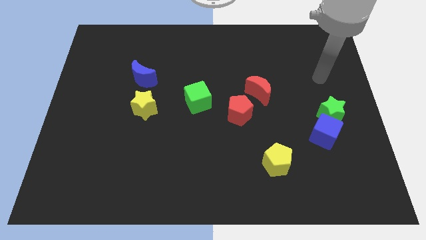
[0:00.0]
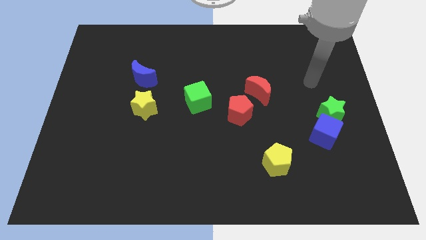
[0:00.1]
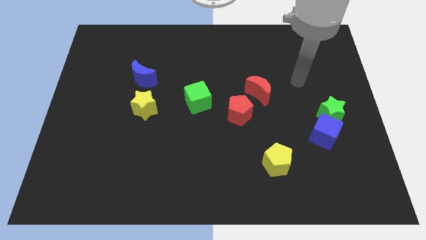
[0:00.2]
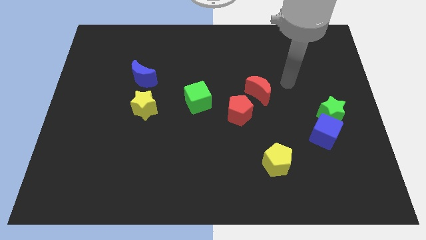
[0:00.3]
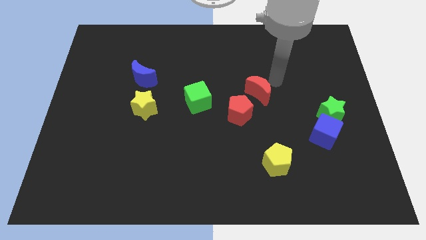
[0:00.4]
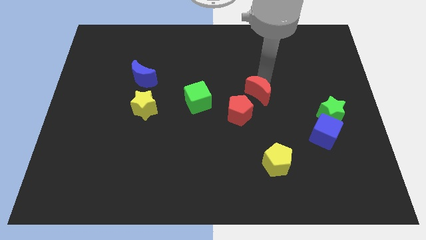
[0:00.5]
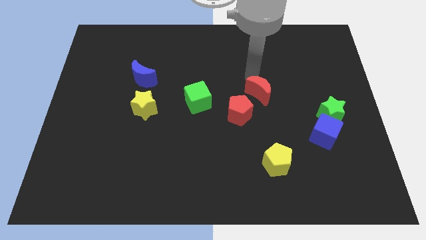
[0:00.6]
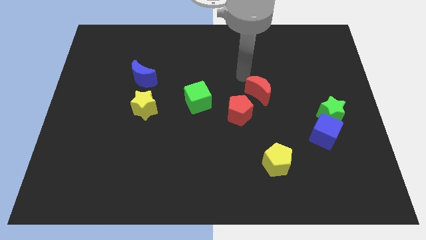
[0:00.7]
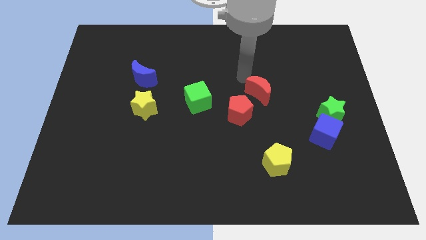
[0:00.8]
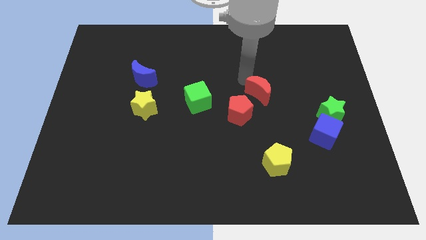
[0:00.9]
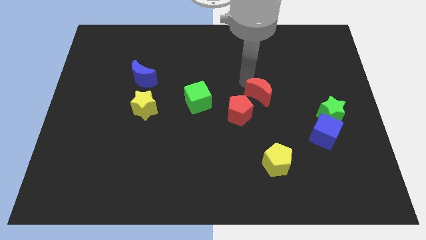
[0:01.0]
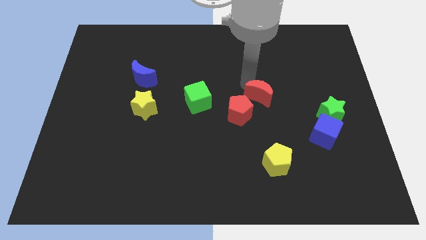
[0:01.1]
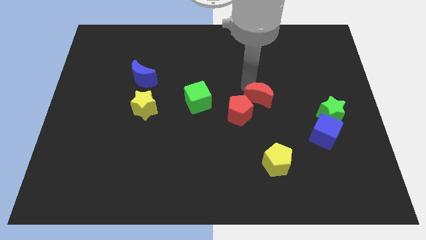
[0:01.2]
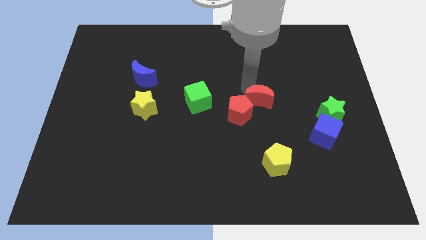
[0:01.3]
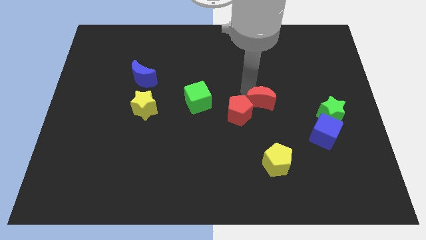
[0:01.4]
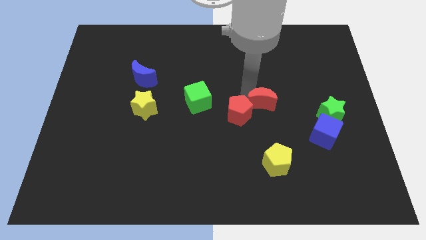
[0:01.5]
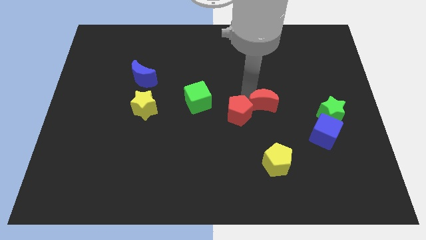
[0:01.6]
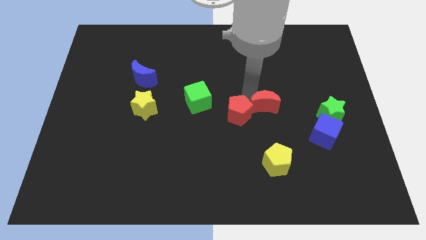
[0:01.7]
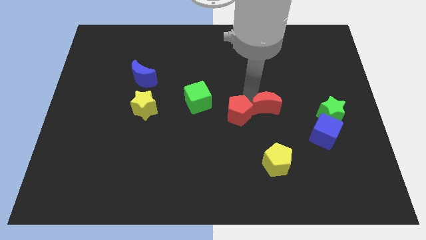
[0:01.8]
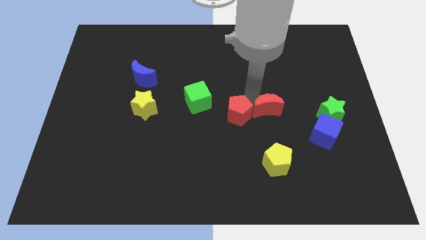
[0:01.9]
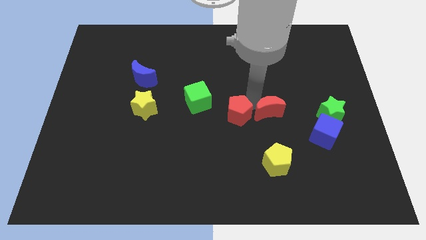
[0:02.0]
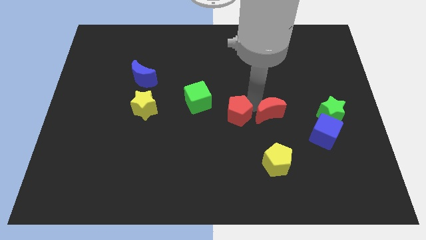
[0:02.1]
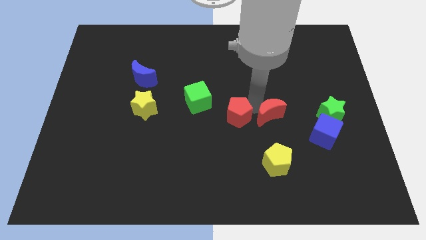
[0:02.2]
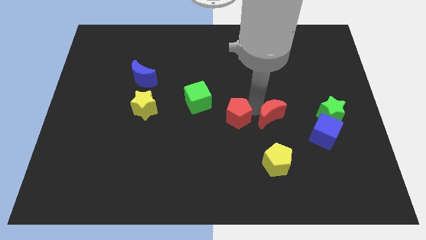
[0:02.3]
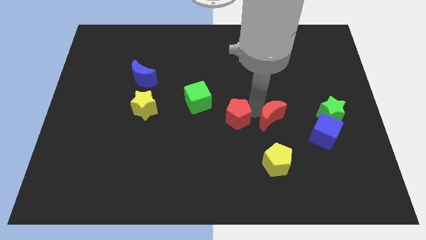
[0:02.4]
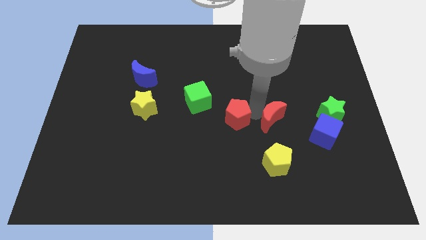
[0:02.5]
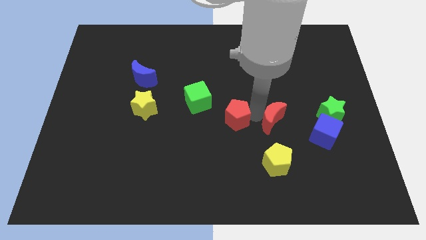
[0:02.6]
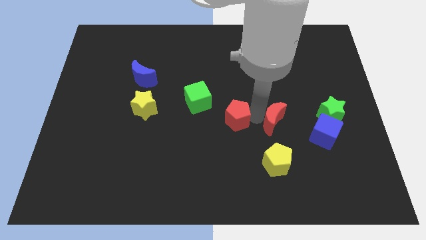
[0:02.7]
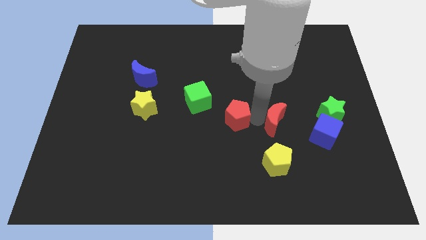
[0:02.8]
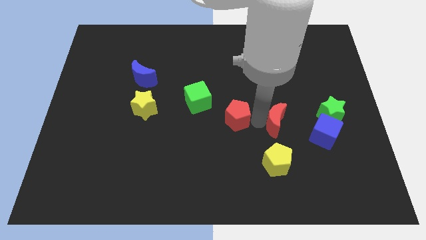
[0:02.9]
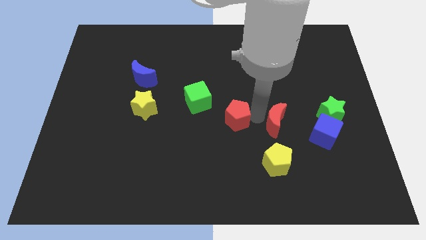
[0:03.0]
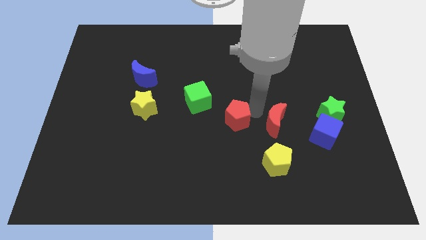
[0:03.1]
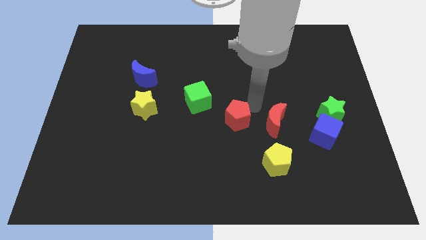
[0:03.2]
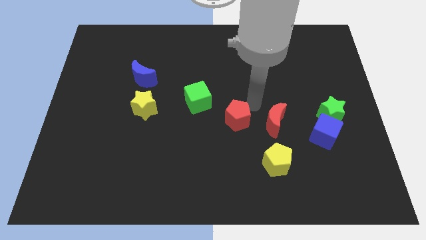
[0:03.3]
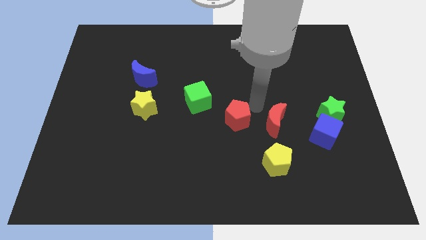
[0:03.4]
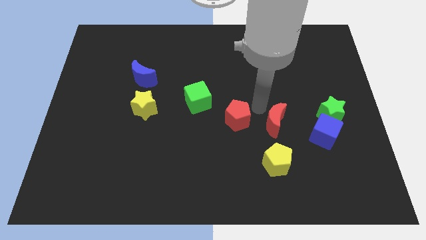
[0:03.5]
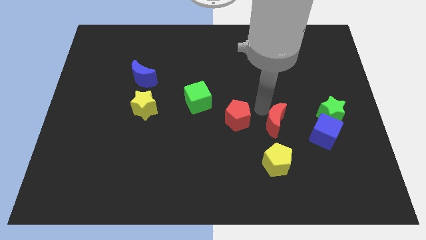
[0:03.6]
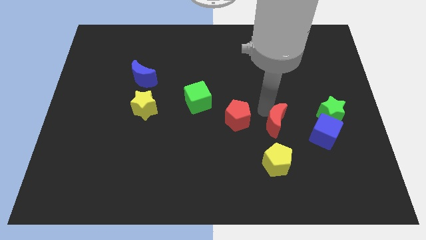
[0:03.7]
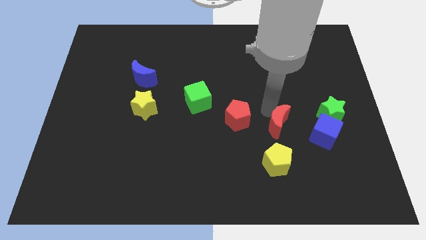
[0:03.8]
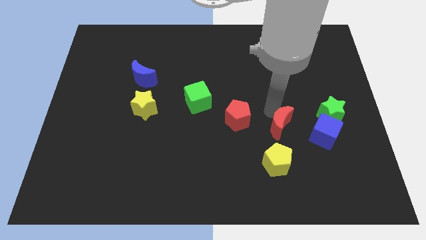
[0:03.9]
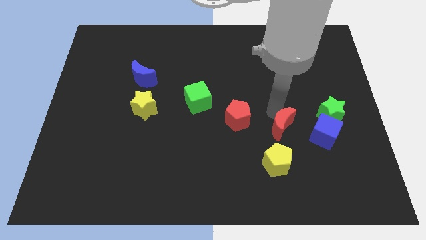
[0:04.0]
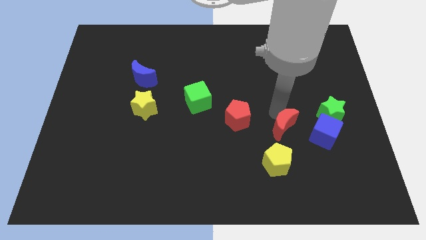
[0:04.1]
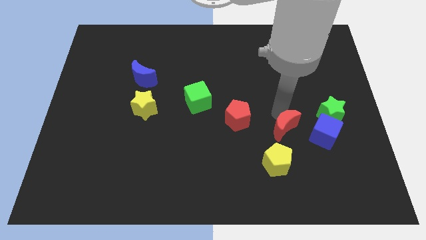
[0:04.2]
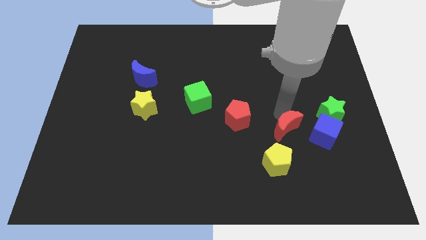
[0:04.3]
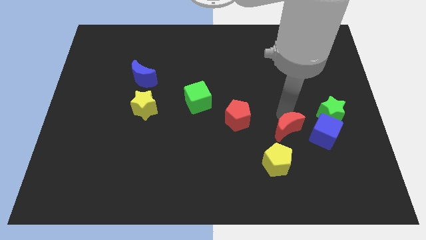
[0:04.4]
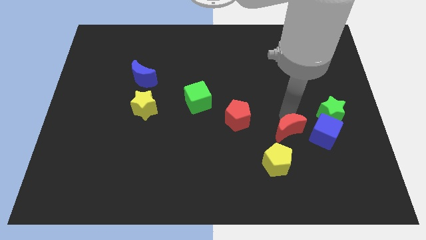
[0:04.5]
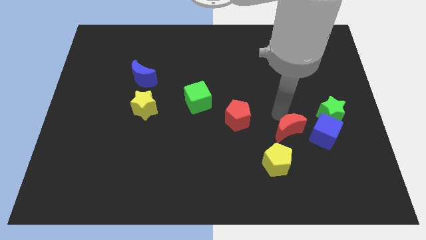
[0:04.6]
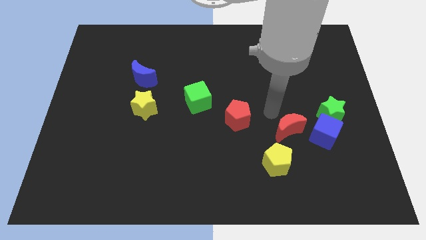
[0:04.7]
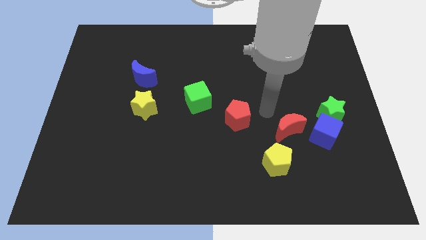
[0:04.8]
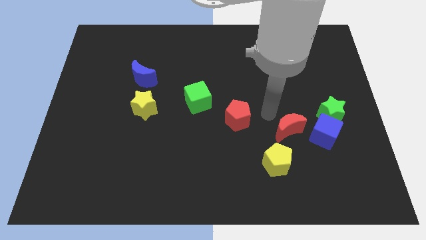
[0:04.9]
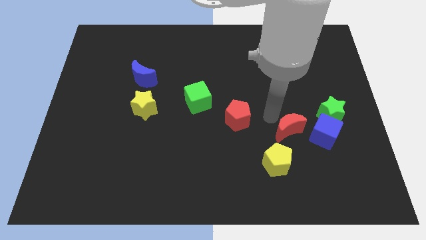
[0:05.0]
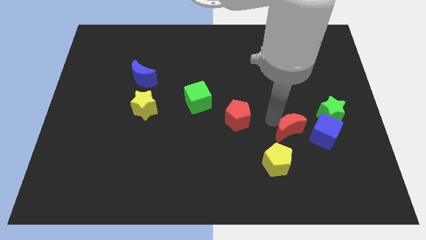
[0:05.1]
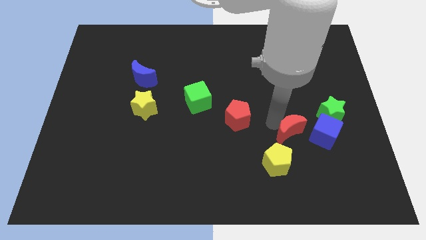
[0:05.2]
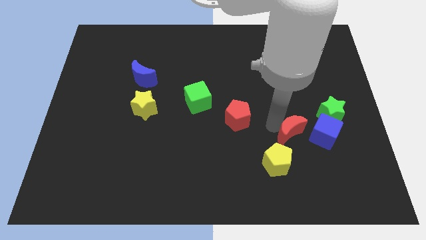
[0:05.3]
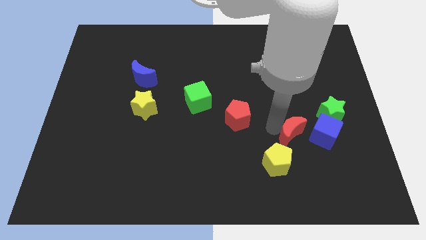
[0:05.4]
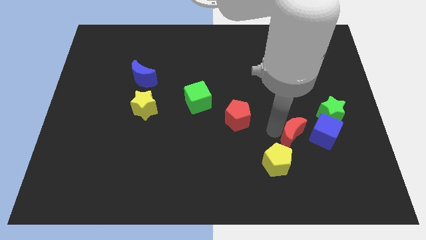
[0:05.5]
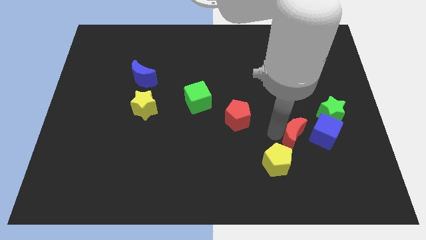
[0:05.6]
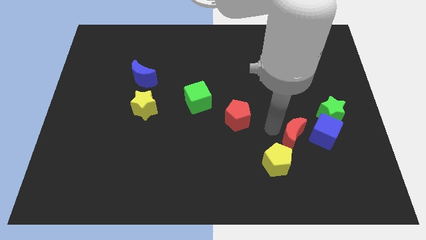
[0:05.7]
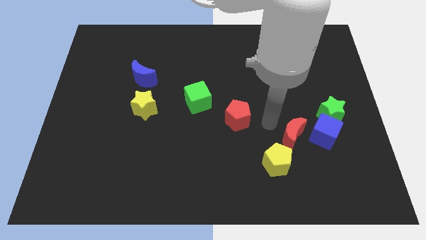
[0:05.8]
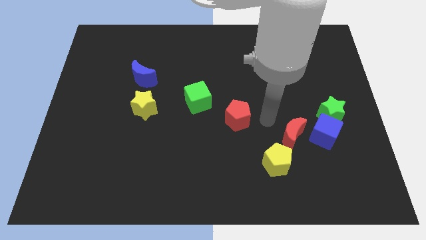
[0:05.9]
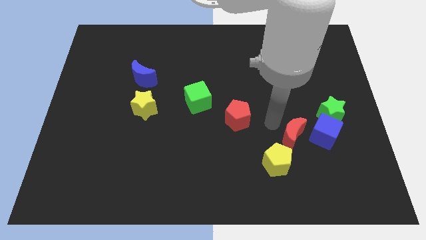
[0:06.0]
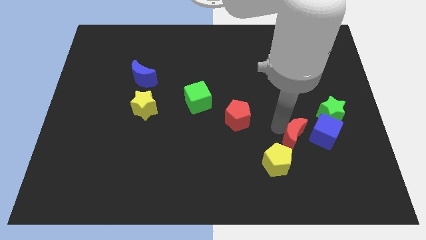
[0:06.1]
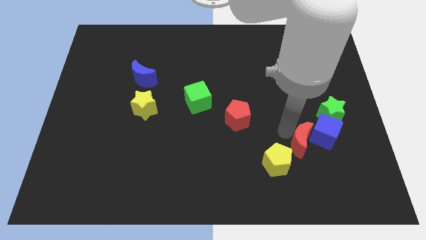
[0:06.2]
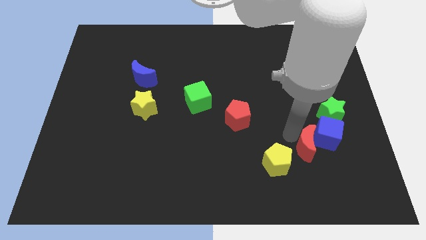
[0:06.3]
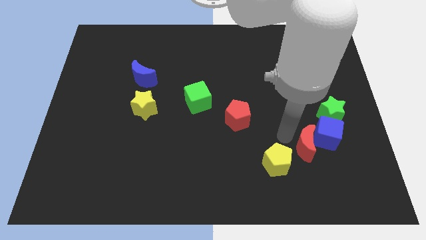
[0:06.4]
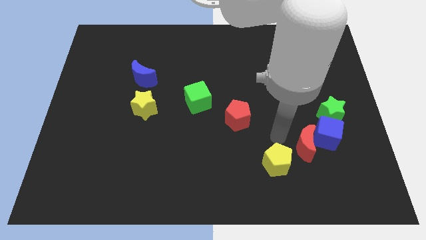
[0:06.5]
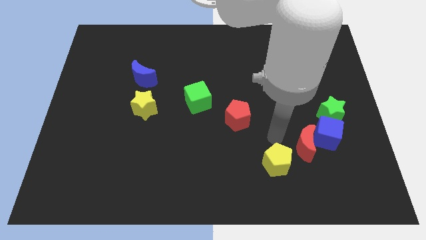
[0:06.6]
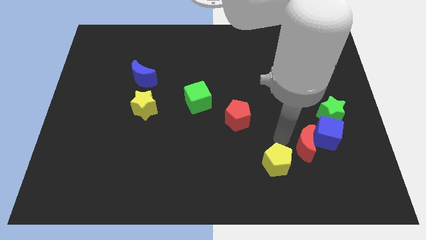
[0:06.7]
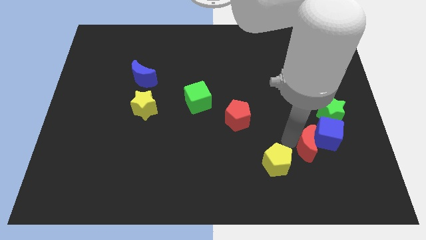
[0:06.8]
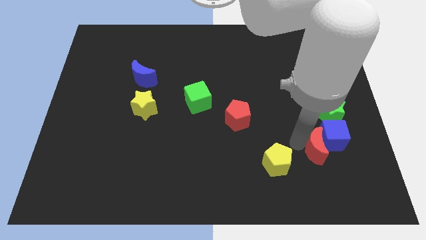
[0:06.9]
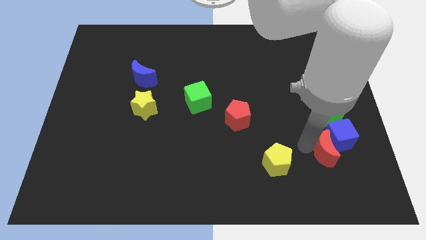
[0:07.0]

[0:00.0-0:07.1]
put the red moon to the bottom of the green star
